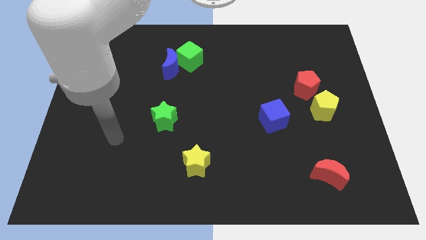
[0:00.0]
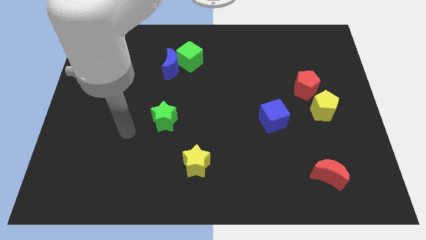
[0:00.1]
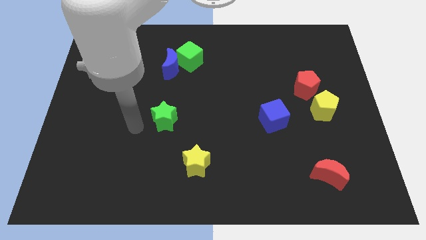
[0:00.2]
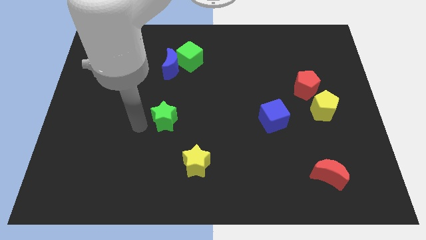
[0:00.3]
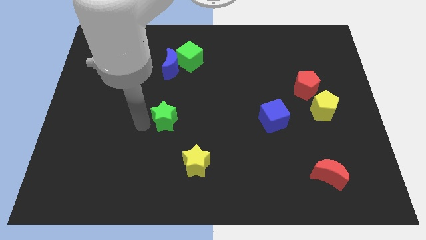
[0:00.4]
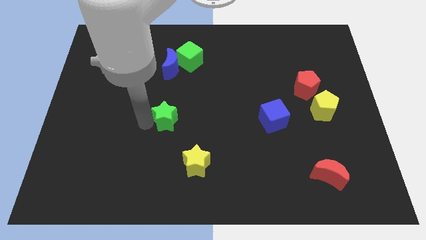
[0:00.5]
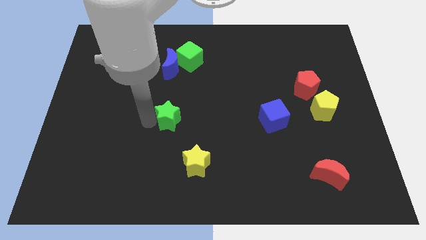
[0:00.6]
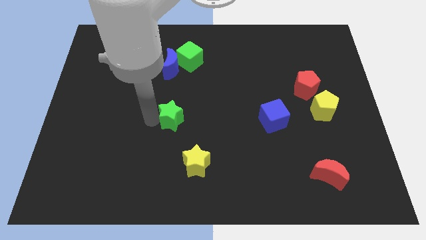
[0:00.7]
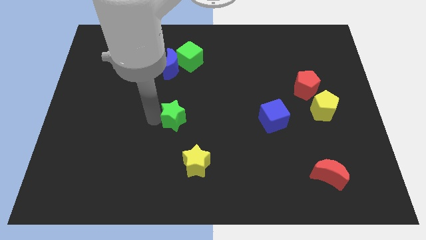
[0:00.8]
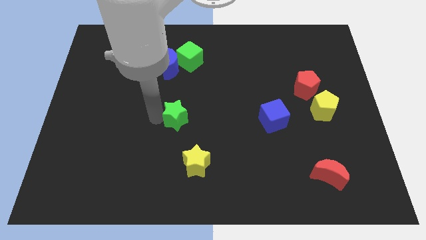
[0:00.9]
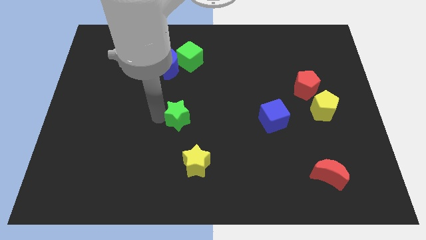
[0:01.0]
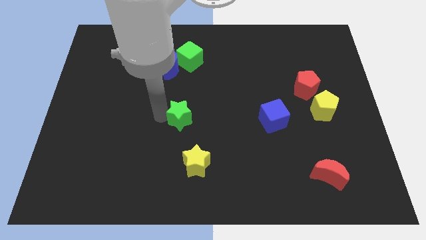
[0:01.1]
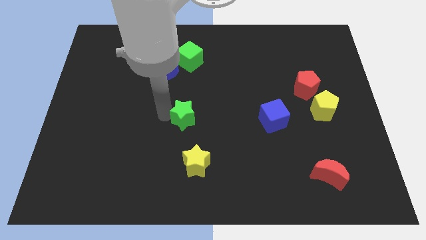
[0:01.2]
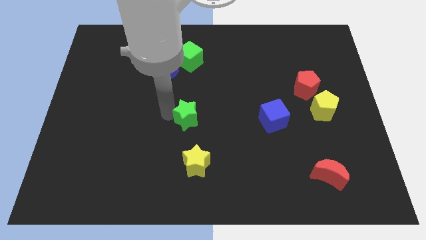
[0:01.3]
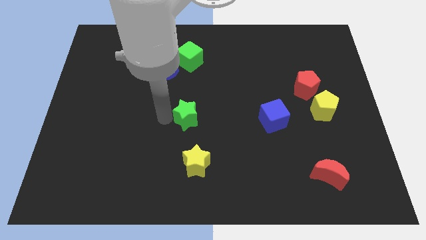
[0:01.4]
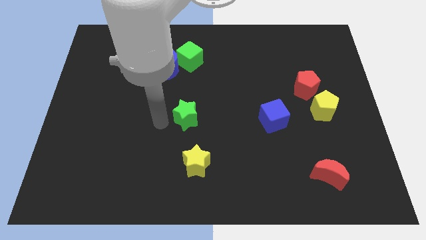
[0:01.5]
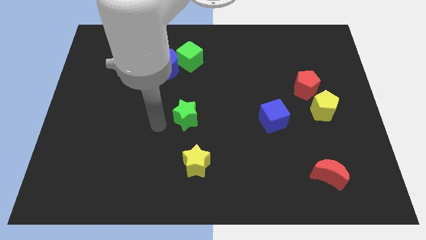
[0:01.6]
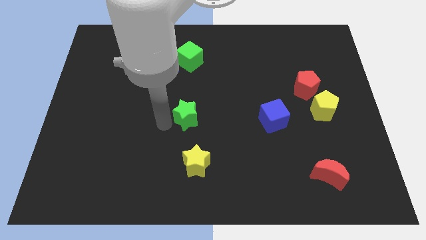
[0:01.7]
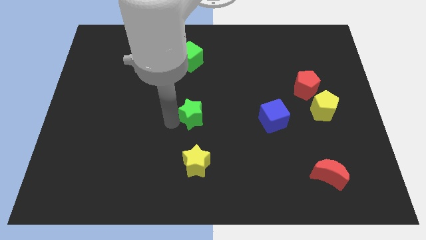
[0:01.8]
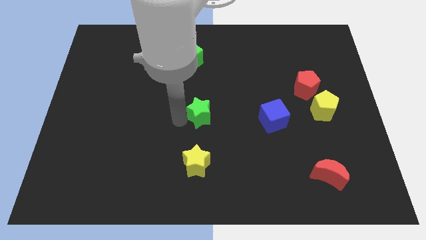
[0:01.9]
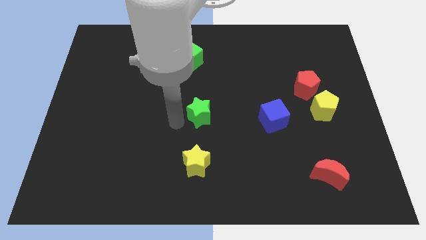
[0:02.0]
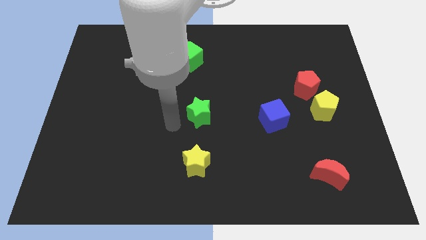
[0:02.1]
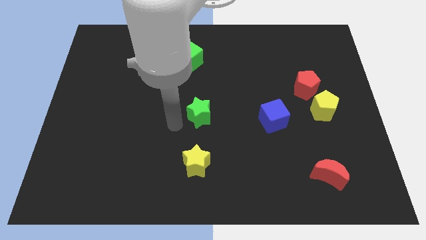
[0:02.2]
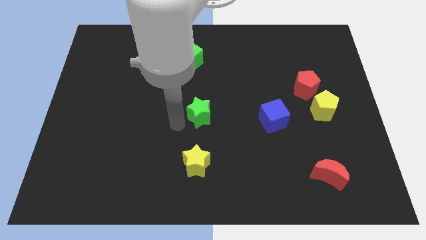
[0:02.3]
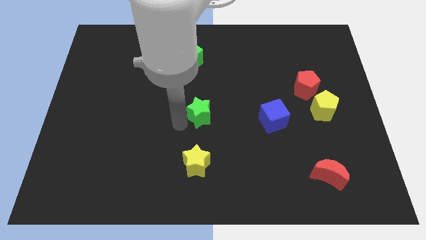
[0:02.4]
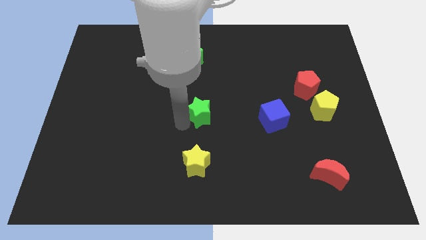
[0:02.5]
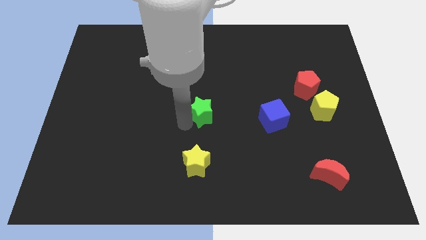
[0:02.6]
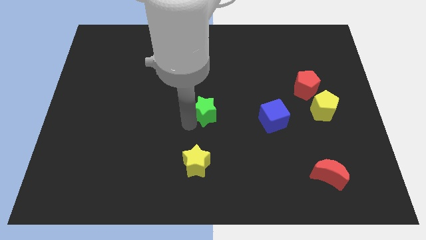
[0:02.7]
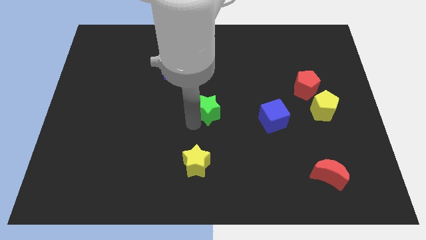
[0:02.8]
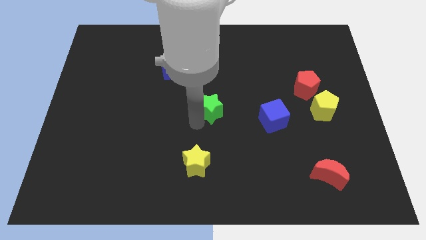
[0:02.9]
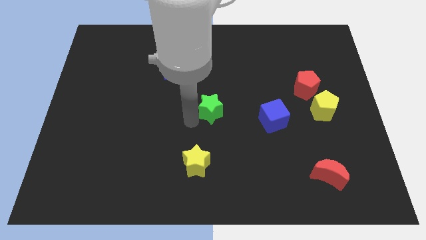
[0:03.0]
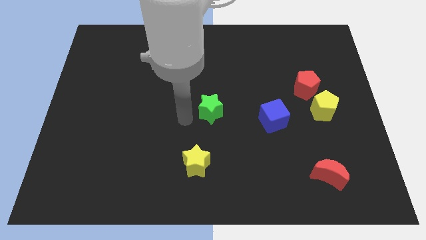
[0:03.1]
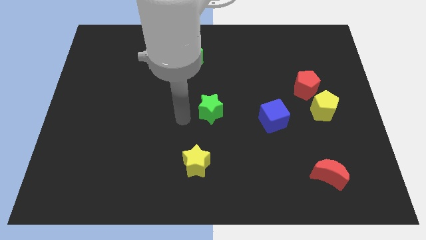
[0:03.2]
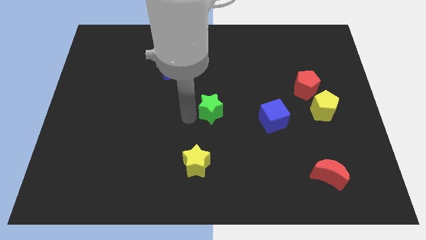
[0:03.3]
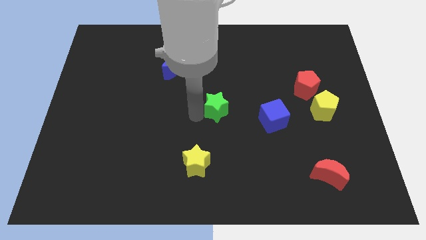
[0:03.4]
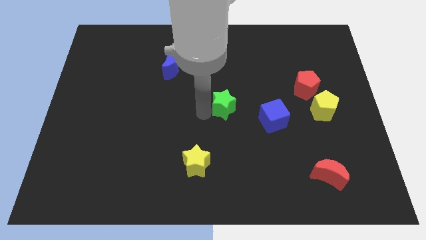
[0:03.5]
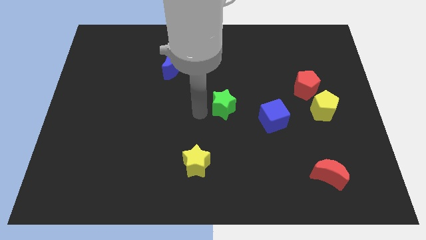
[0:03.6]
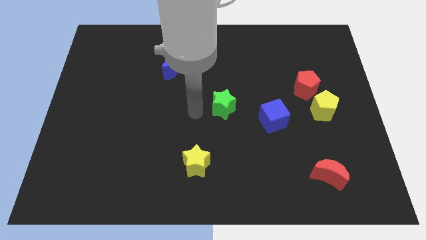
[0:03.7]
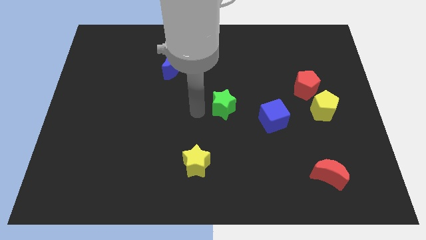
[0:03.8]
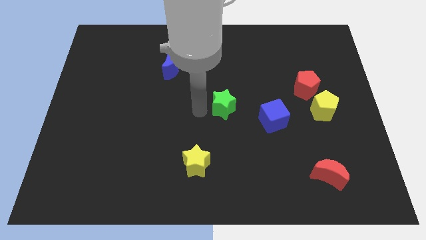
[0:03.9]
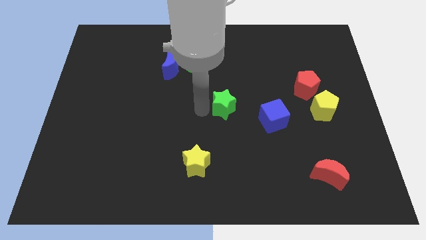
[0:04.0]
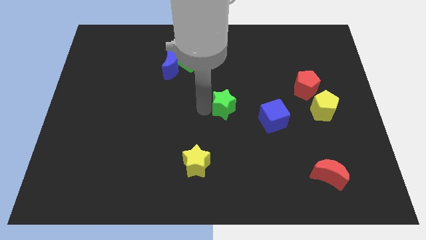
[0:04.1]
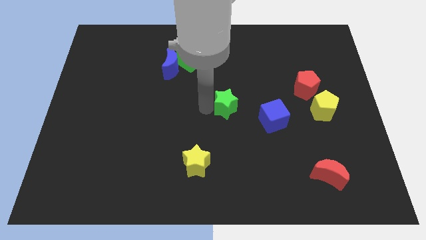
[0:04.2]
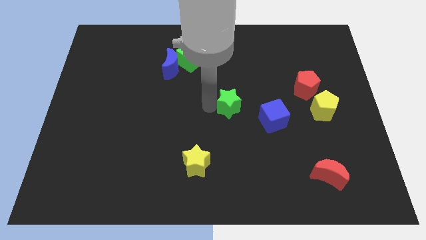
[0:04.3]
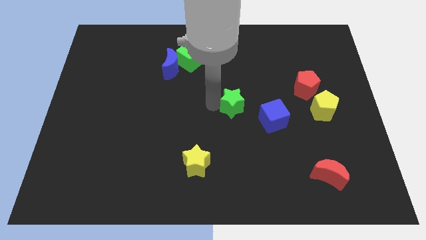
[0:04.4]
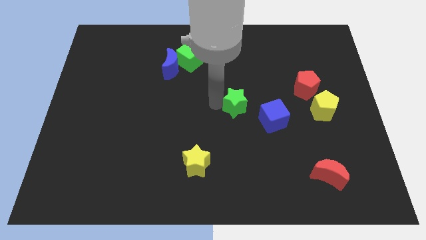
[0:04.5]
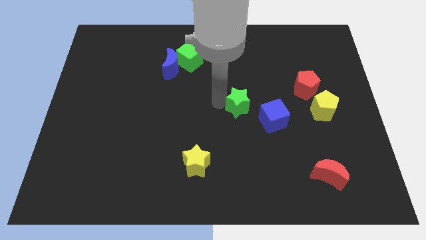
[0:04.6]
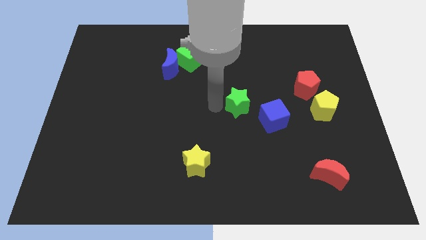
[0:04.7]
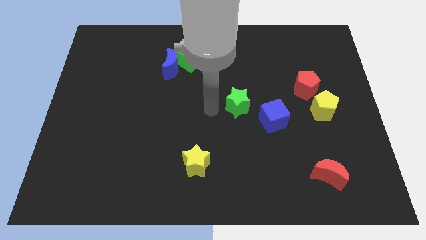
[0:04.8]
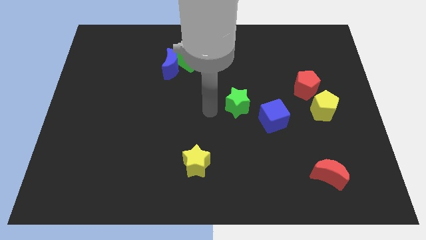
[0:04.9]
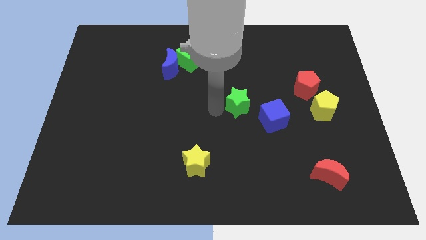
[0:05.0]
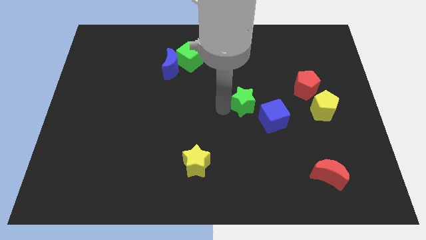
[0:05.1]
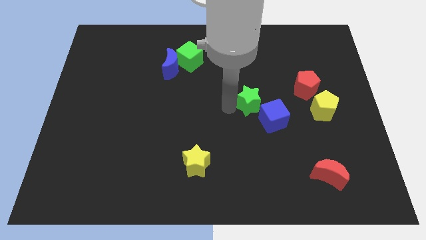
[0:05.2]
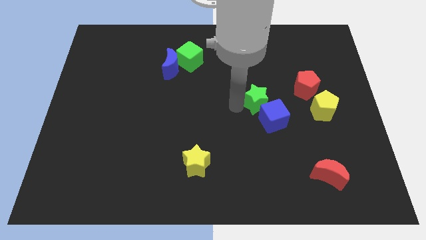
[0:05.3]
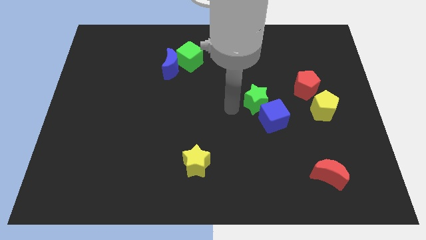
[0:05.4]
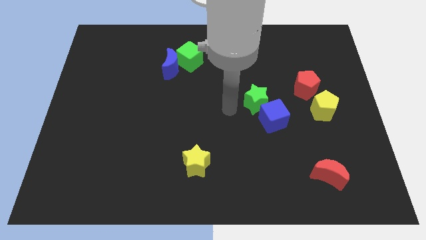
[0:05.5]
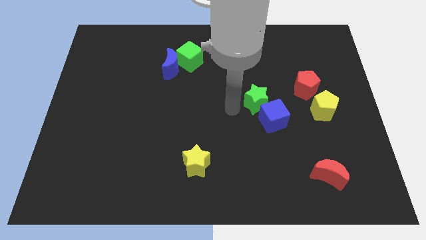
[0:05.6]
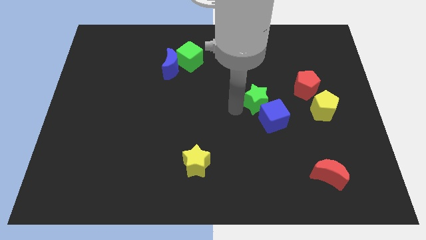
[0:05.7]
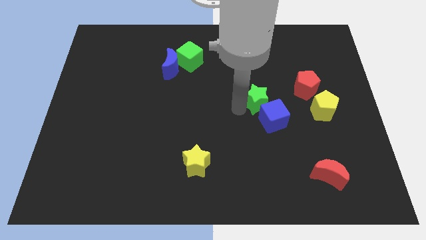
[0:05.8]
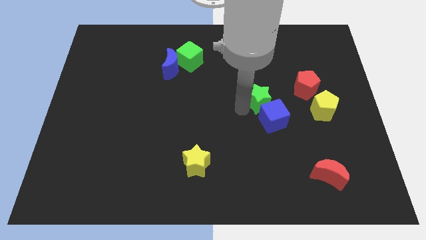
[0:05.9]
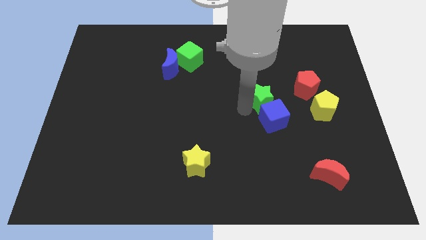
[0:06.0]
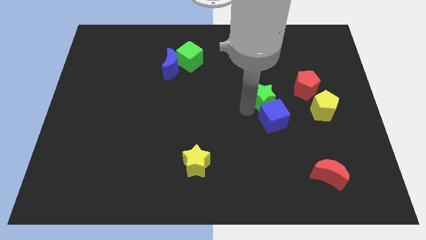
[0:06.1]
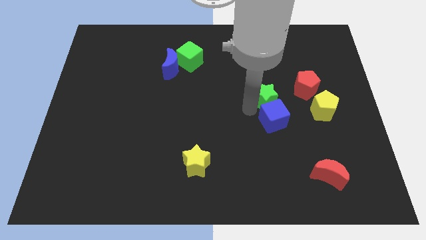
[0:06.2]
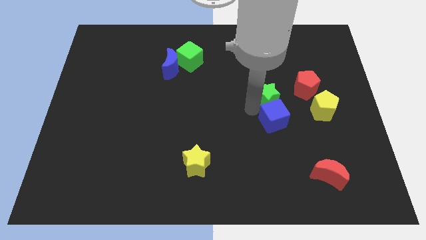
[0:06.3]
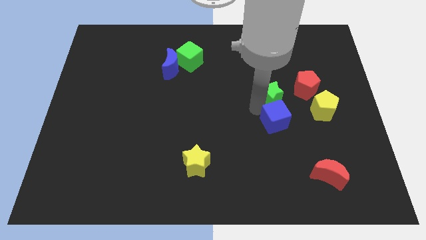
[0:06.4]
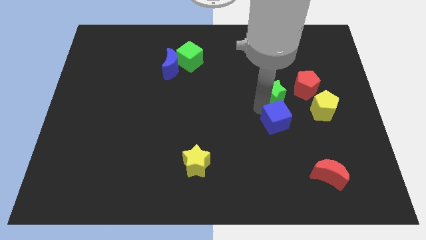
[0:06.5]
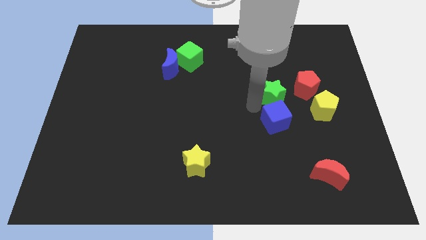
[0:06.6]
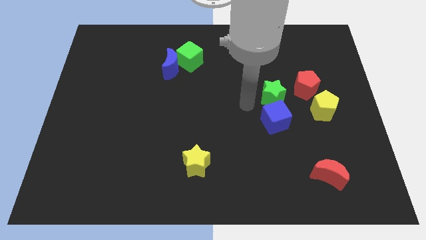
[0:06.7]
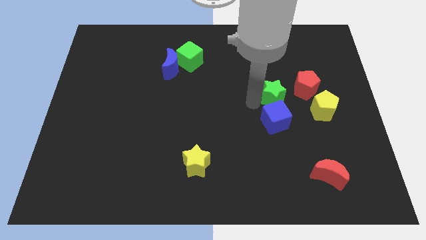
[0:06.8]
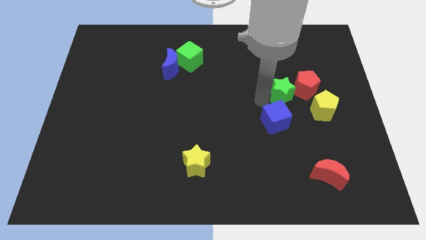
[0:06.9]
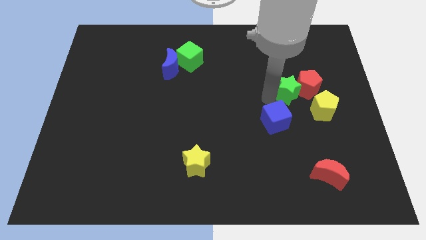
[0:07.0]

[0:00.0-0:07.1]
move the green star next to the red pentagon

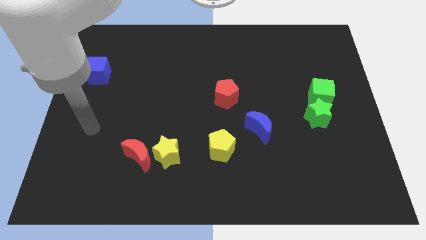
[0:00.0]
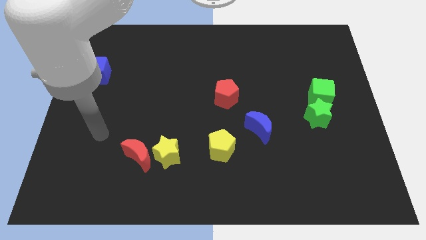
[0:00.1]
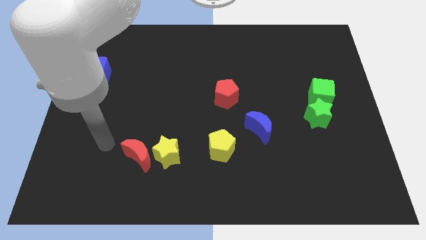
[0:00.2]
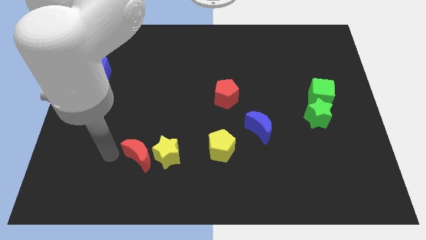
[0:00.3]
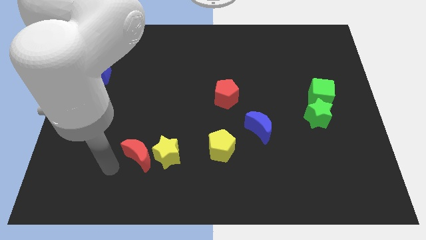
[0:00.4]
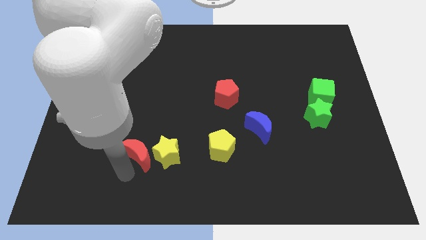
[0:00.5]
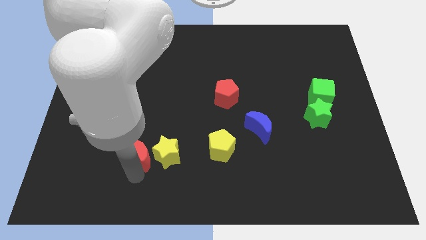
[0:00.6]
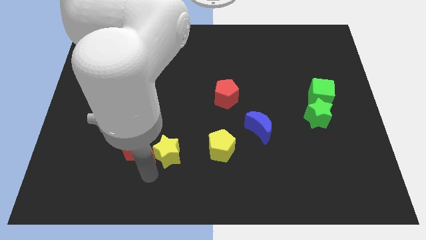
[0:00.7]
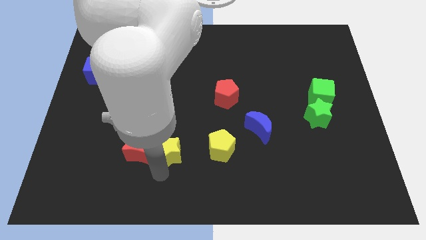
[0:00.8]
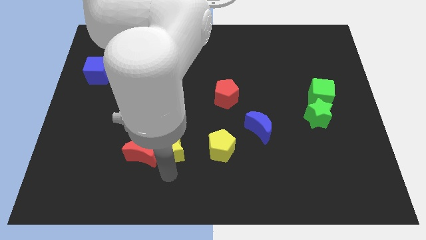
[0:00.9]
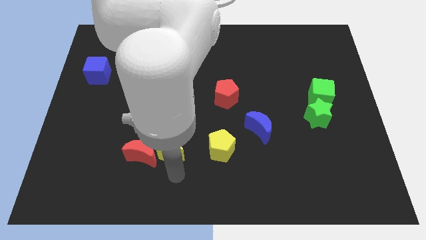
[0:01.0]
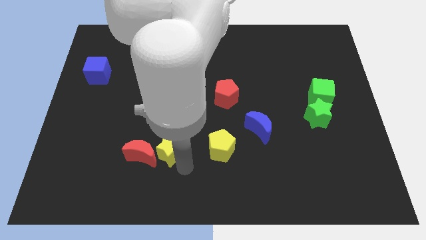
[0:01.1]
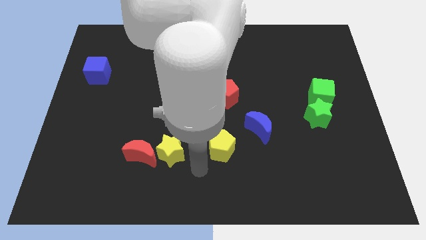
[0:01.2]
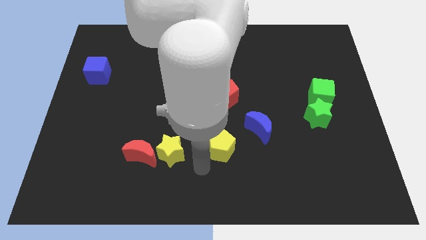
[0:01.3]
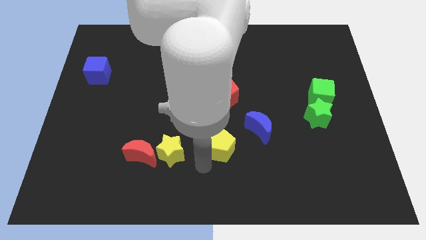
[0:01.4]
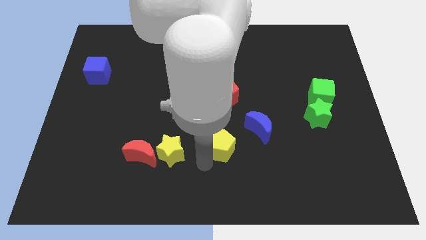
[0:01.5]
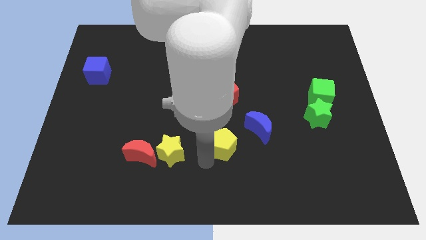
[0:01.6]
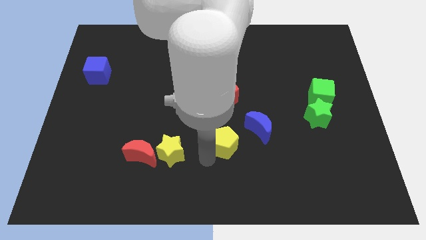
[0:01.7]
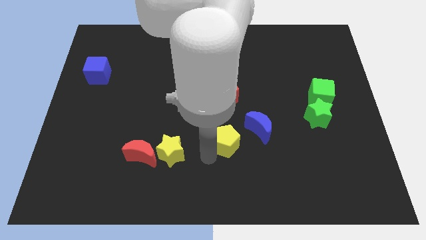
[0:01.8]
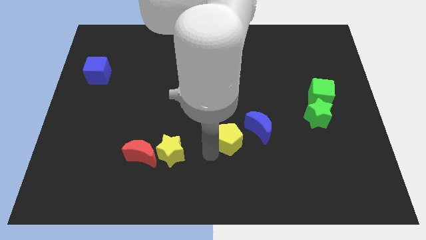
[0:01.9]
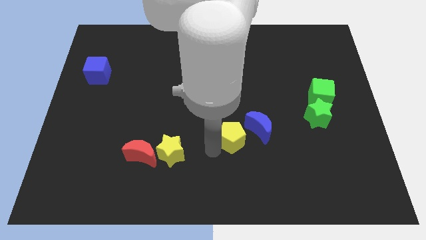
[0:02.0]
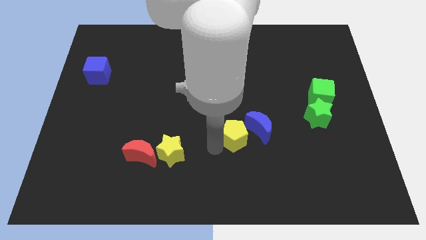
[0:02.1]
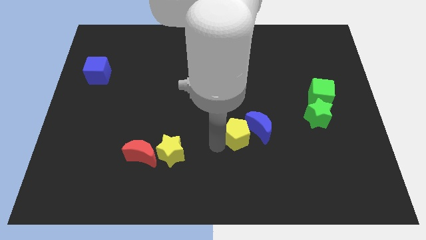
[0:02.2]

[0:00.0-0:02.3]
slide the yellow pentagon towards the blue moon
